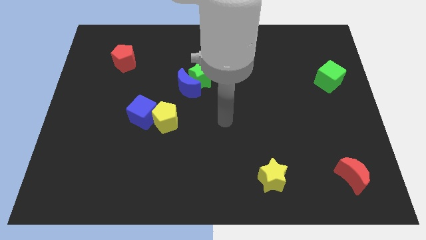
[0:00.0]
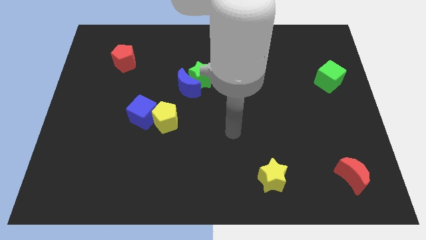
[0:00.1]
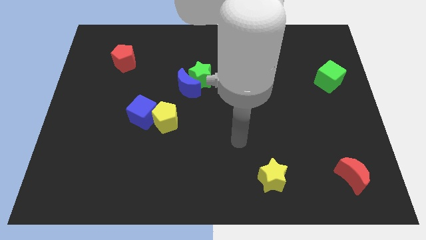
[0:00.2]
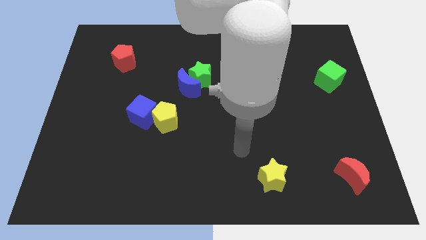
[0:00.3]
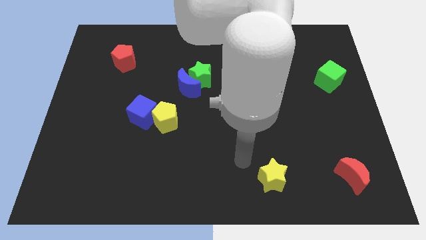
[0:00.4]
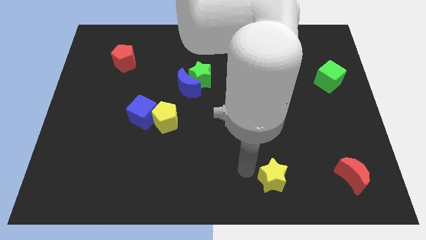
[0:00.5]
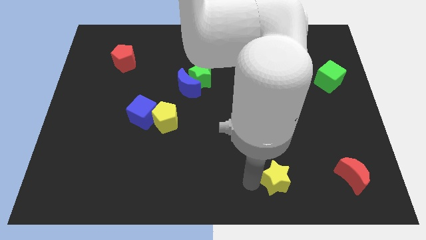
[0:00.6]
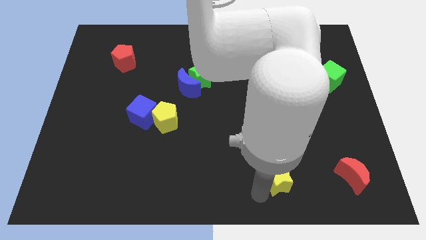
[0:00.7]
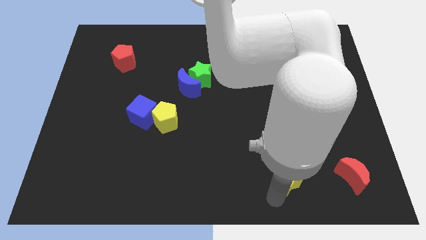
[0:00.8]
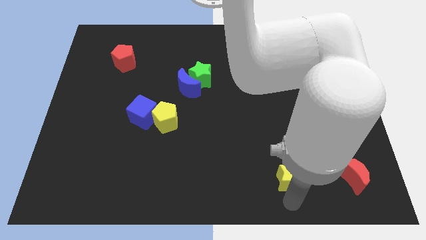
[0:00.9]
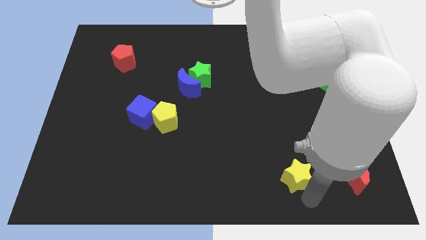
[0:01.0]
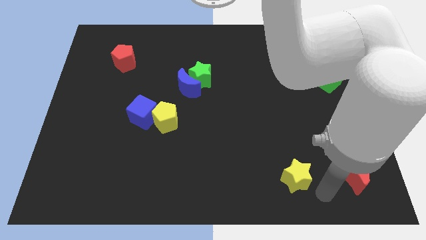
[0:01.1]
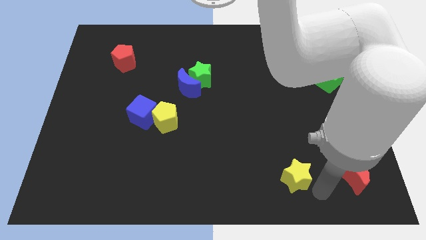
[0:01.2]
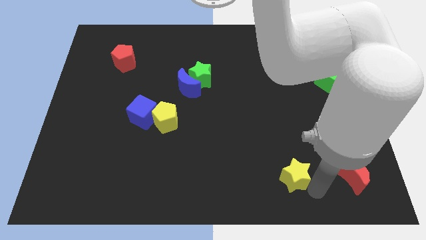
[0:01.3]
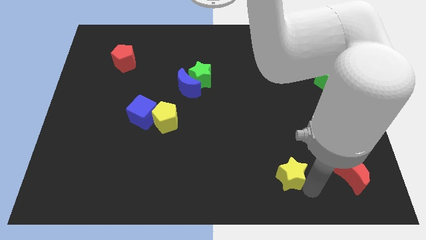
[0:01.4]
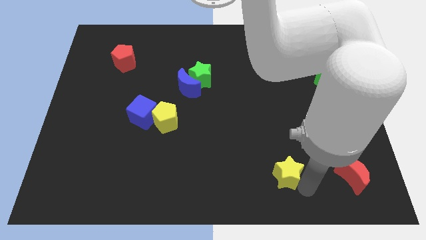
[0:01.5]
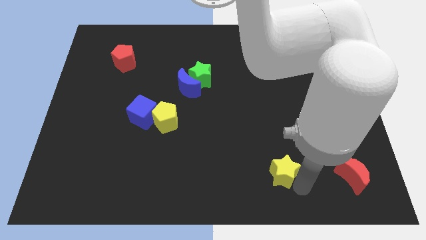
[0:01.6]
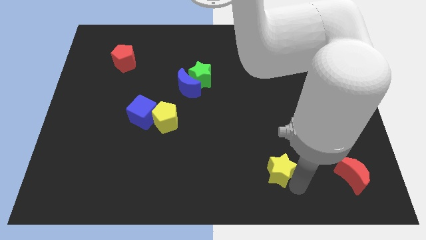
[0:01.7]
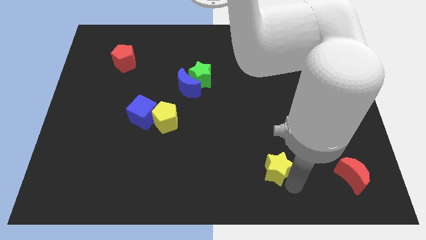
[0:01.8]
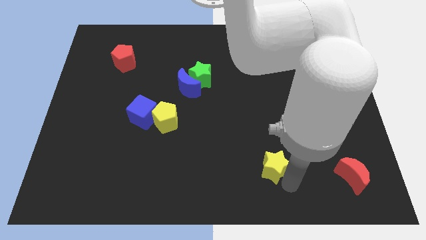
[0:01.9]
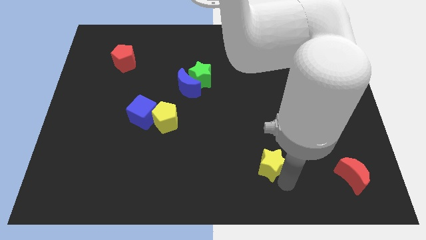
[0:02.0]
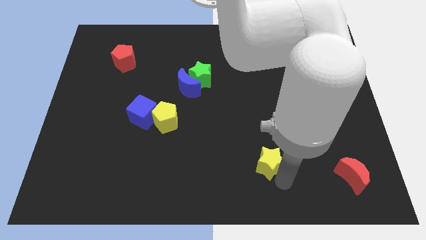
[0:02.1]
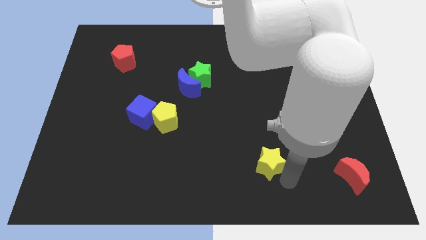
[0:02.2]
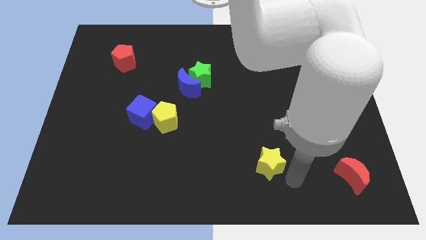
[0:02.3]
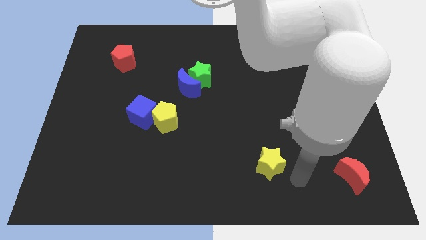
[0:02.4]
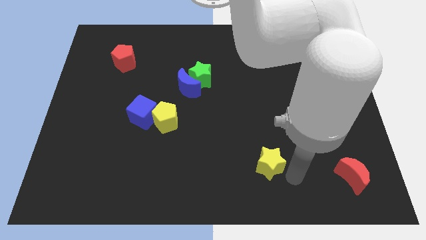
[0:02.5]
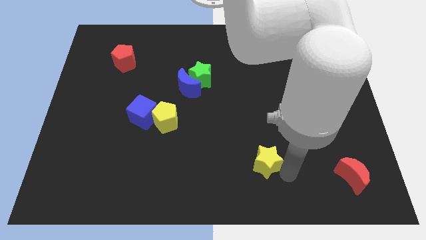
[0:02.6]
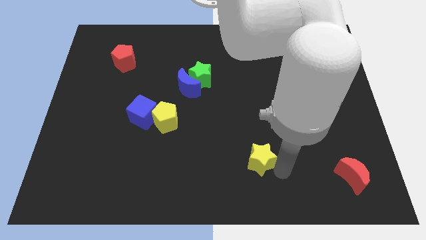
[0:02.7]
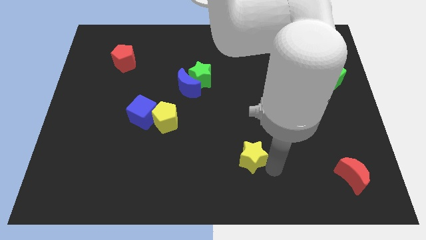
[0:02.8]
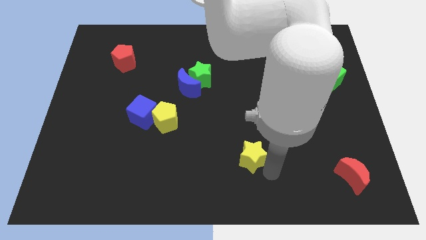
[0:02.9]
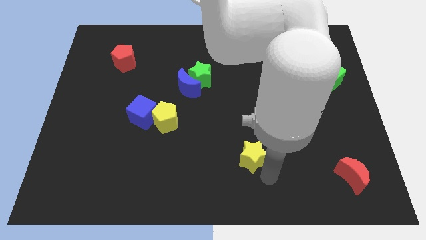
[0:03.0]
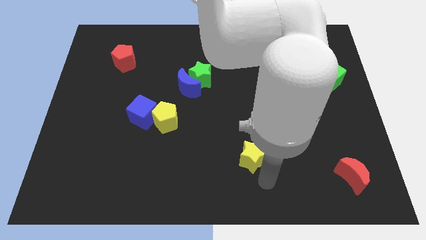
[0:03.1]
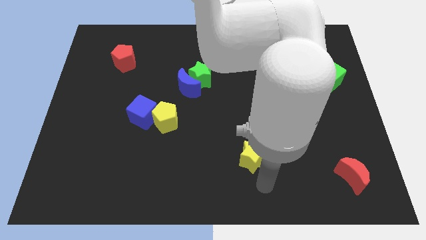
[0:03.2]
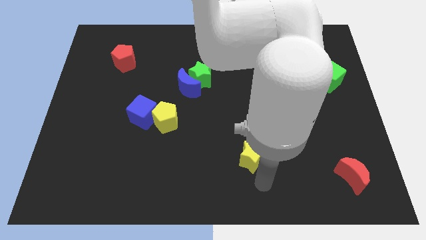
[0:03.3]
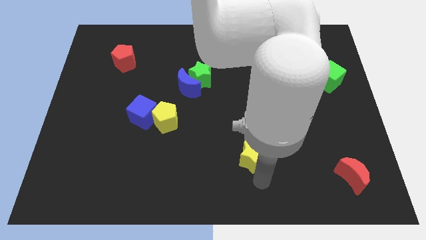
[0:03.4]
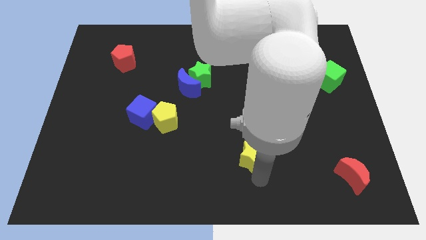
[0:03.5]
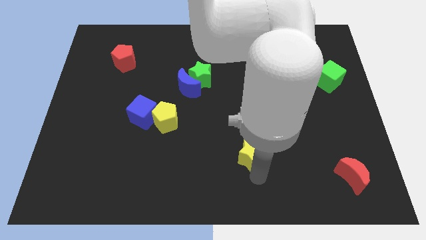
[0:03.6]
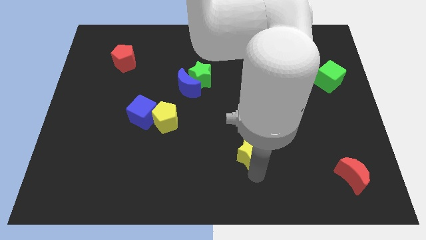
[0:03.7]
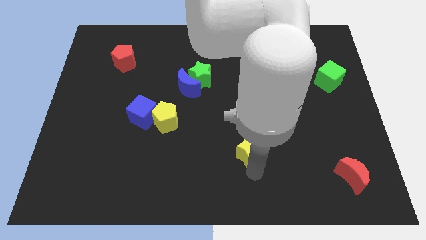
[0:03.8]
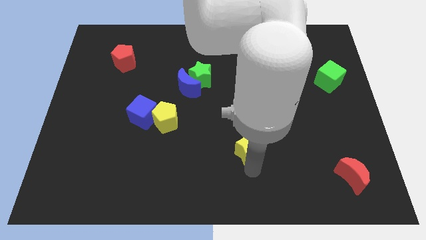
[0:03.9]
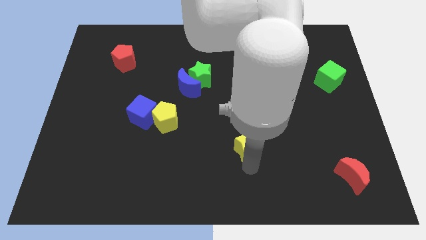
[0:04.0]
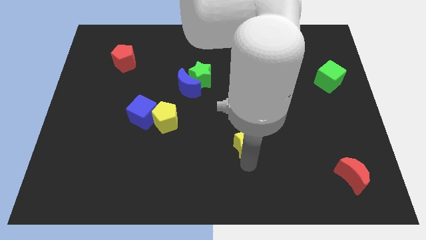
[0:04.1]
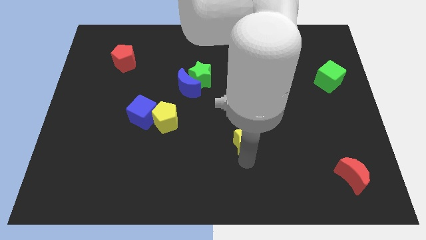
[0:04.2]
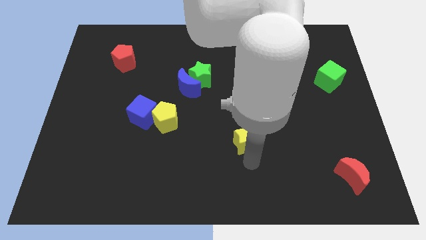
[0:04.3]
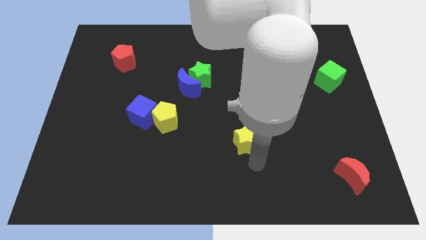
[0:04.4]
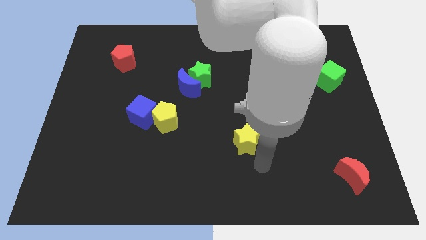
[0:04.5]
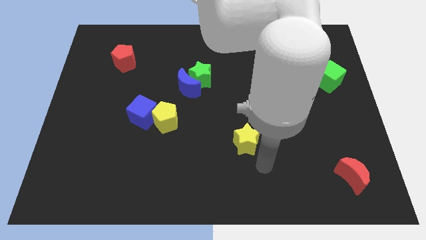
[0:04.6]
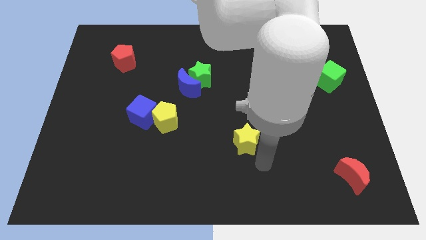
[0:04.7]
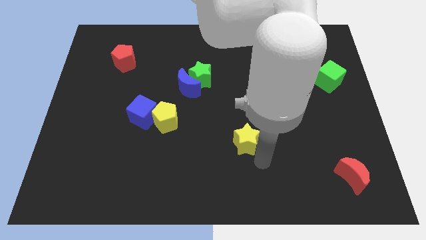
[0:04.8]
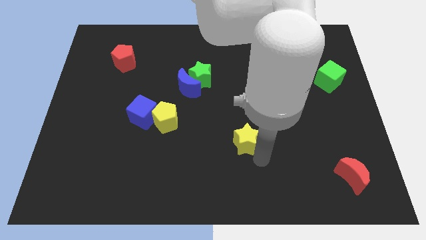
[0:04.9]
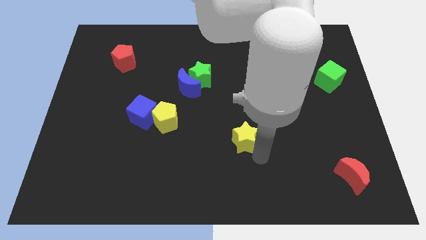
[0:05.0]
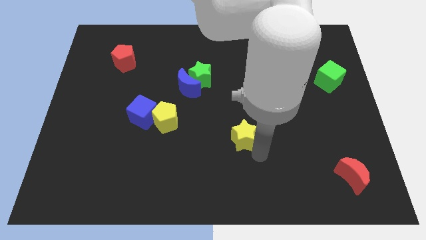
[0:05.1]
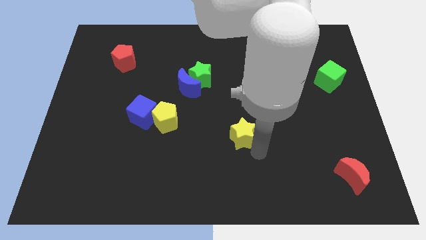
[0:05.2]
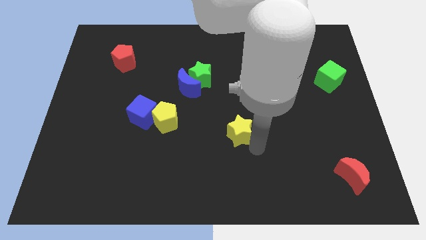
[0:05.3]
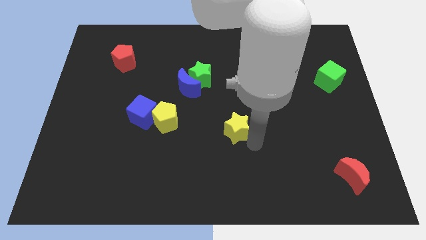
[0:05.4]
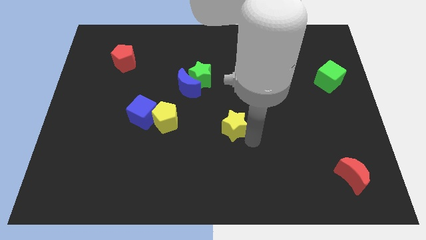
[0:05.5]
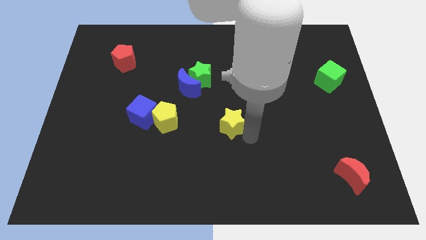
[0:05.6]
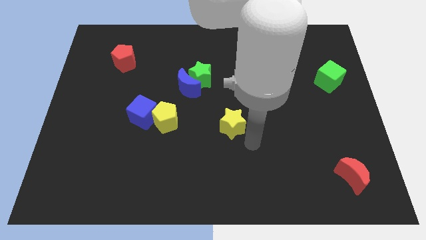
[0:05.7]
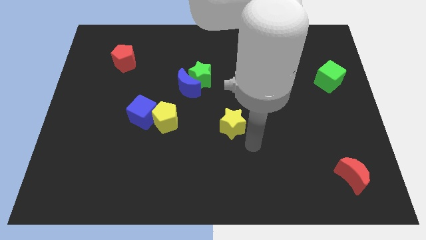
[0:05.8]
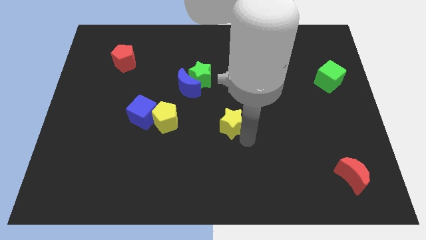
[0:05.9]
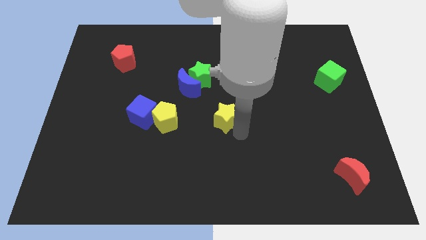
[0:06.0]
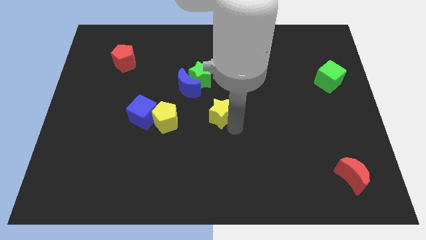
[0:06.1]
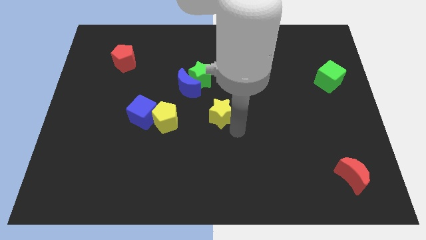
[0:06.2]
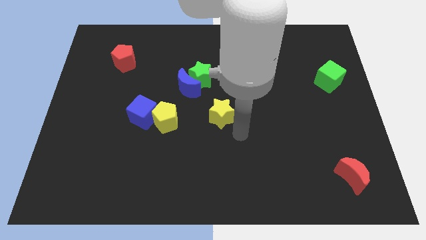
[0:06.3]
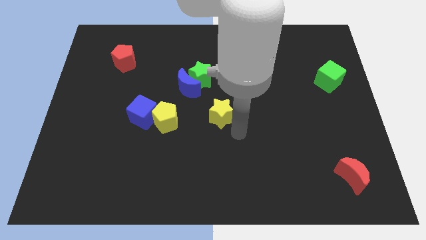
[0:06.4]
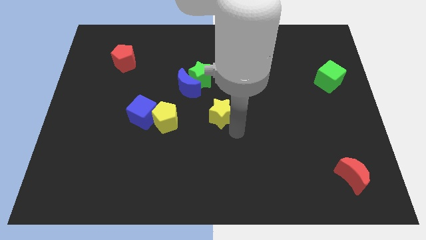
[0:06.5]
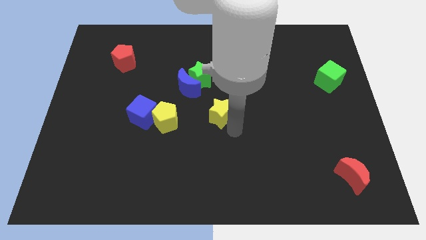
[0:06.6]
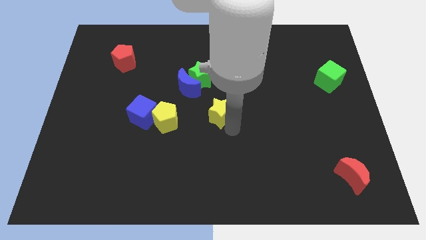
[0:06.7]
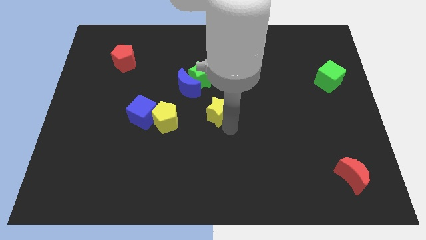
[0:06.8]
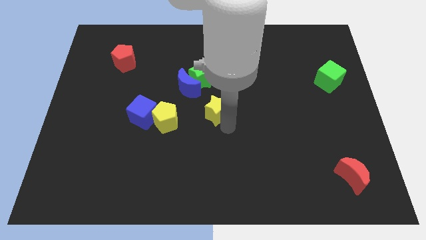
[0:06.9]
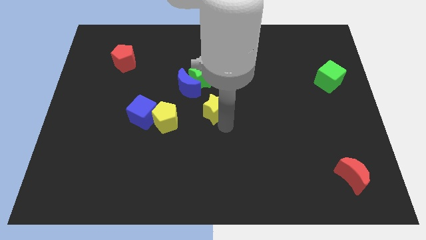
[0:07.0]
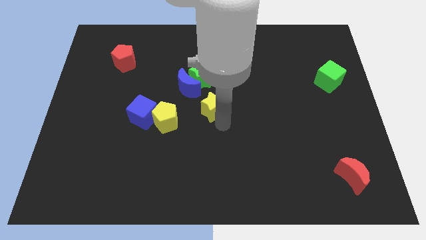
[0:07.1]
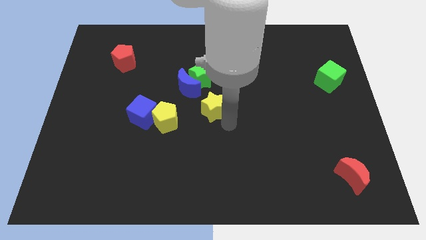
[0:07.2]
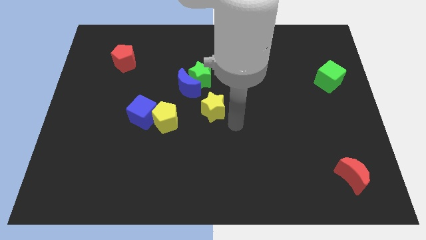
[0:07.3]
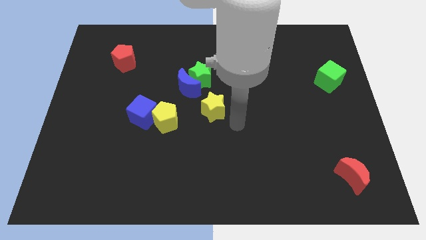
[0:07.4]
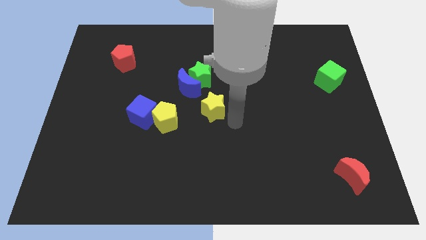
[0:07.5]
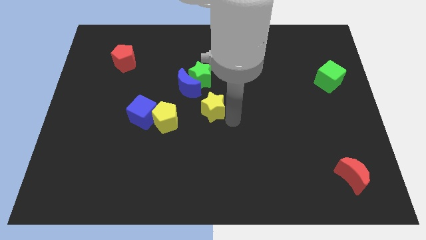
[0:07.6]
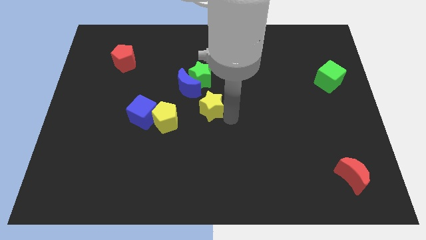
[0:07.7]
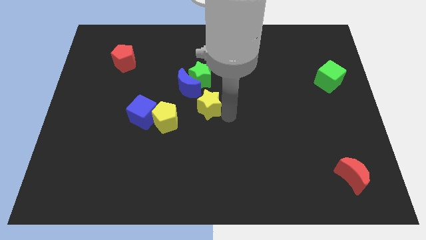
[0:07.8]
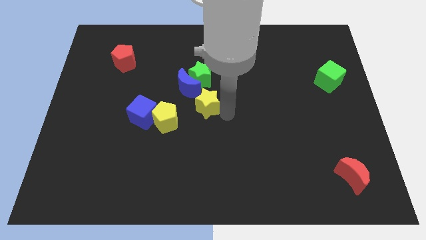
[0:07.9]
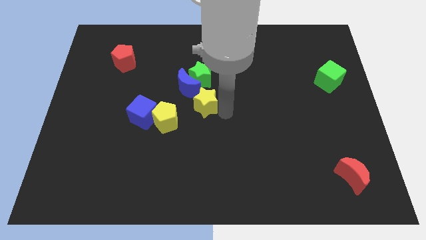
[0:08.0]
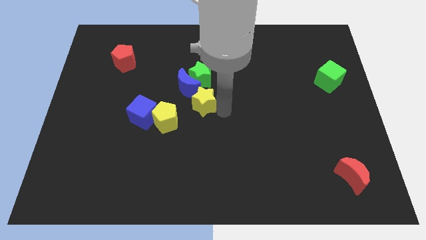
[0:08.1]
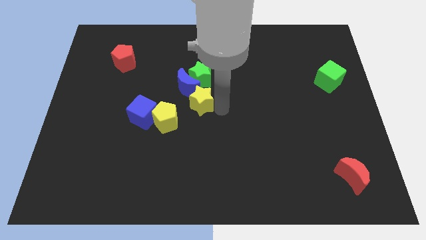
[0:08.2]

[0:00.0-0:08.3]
move the yellow star towards the blue moon
